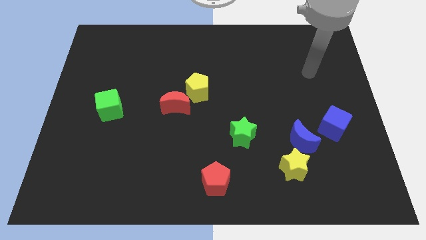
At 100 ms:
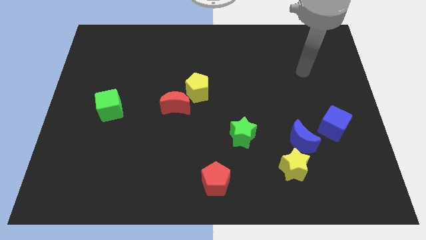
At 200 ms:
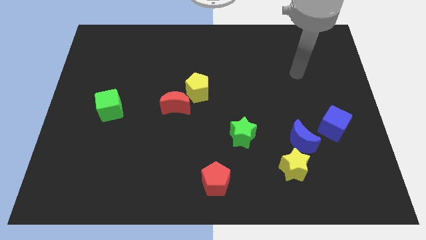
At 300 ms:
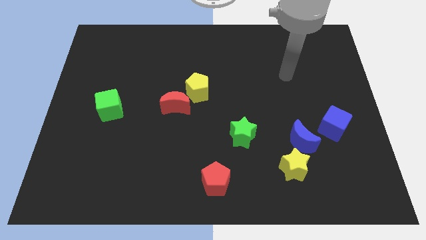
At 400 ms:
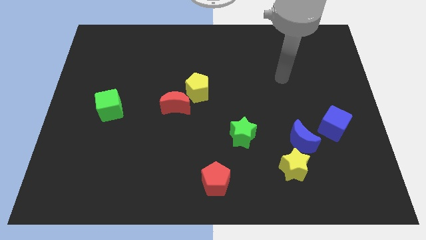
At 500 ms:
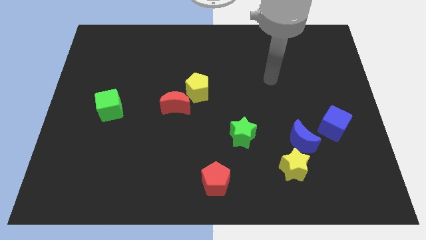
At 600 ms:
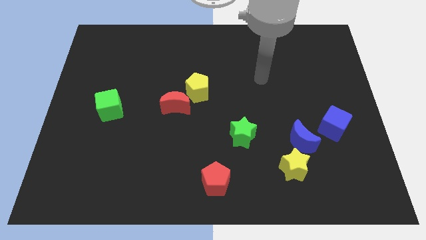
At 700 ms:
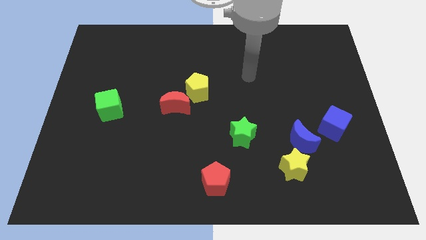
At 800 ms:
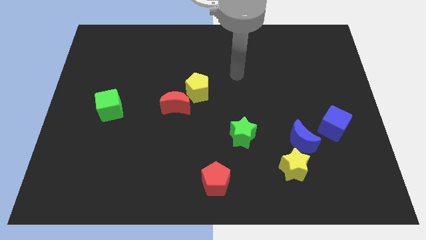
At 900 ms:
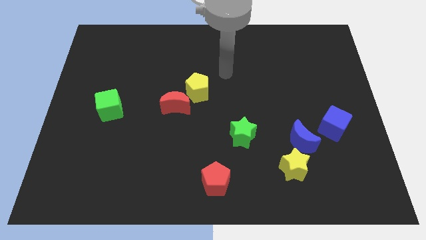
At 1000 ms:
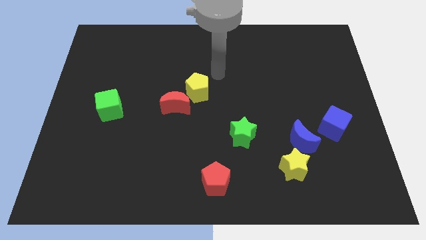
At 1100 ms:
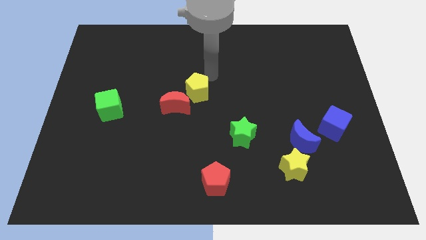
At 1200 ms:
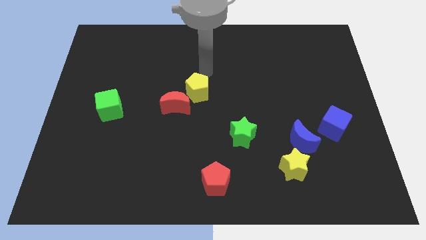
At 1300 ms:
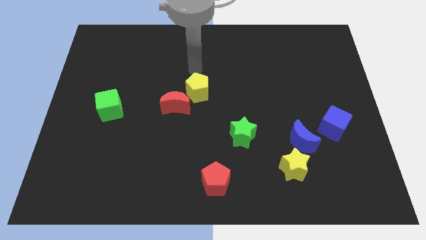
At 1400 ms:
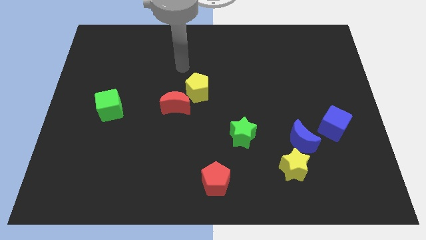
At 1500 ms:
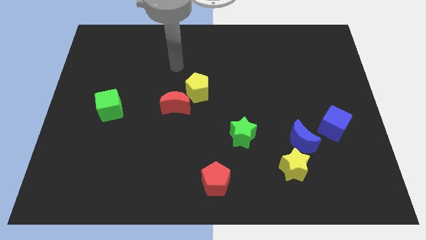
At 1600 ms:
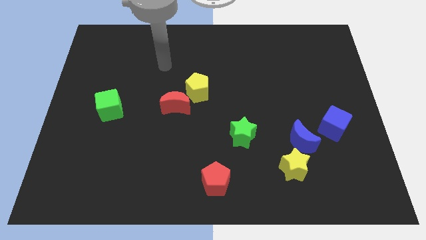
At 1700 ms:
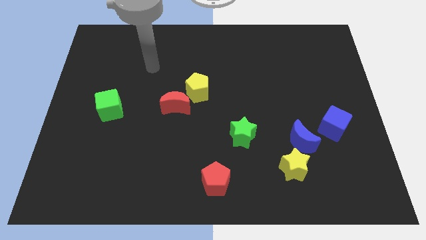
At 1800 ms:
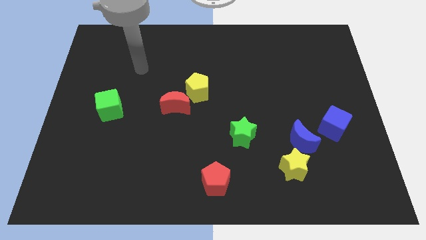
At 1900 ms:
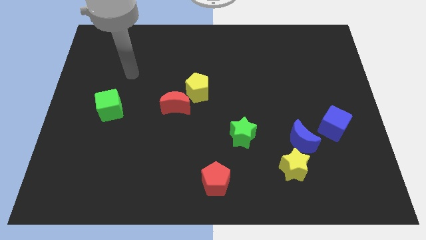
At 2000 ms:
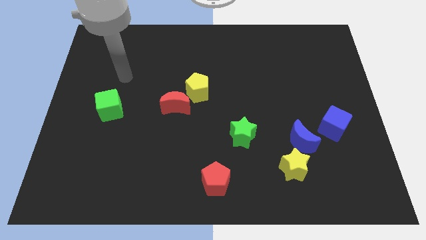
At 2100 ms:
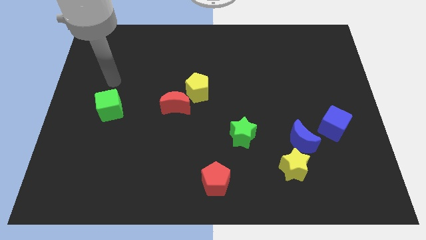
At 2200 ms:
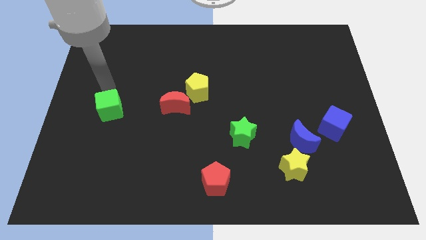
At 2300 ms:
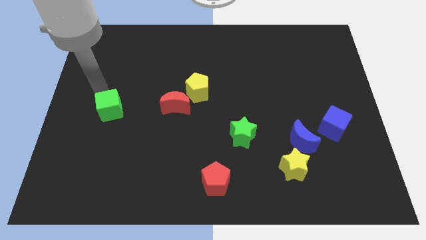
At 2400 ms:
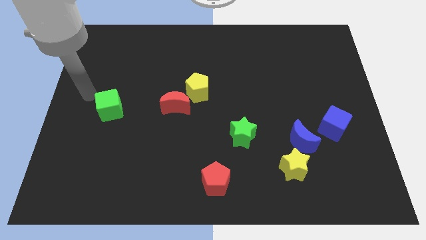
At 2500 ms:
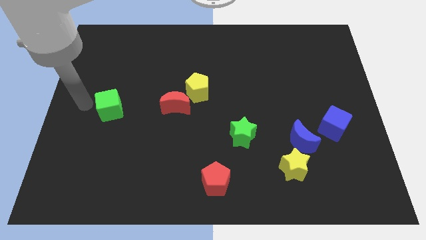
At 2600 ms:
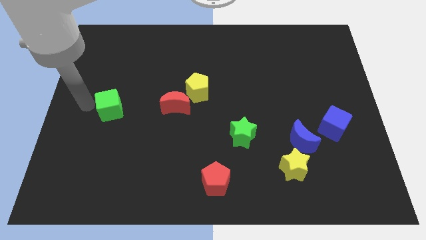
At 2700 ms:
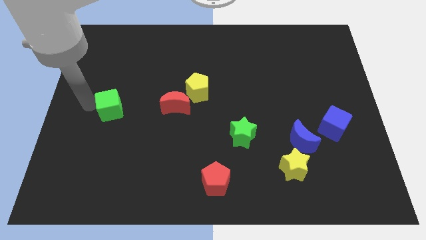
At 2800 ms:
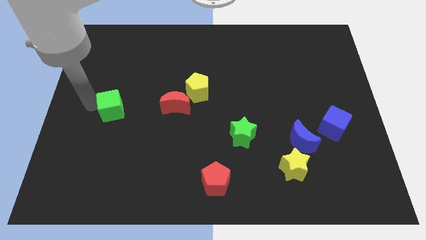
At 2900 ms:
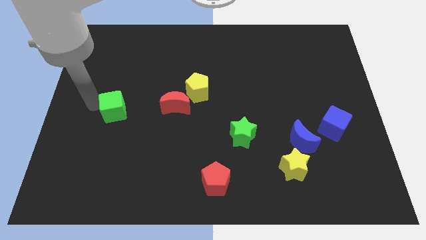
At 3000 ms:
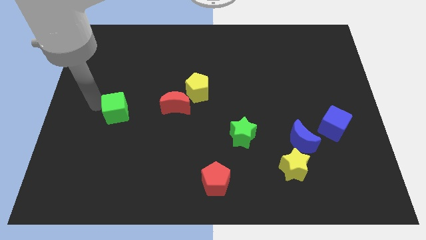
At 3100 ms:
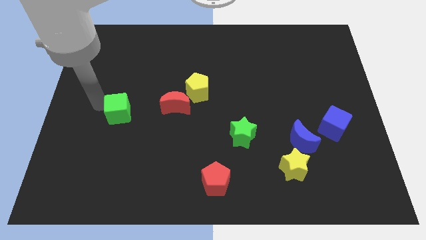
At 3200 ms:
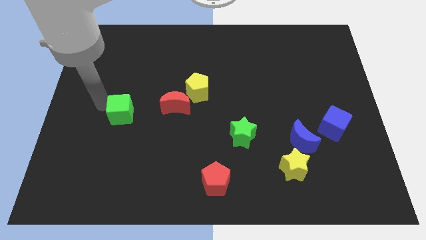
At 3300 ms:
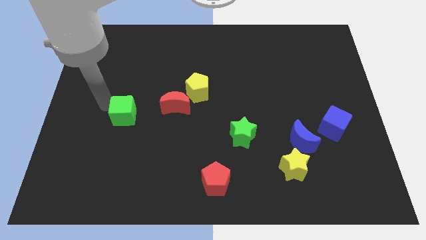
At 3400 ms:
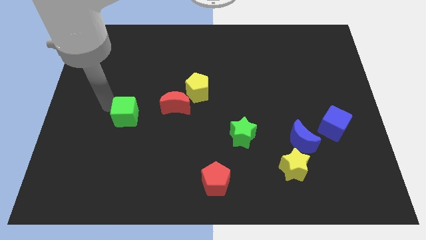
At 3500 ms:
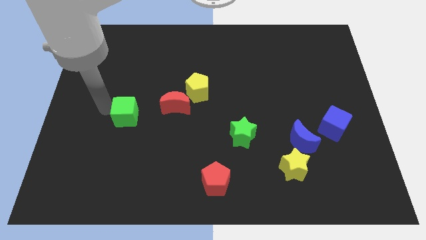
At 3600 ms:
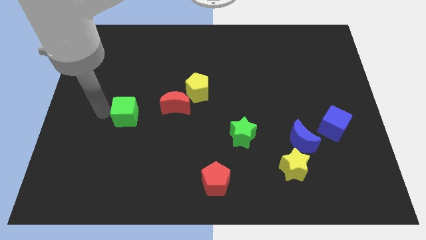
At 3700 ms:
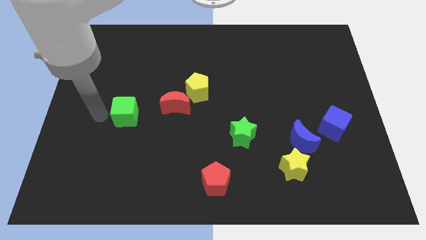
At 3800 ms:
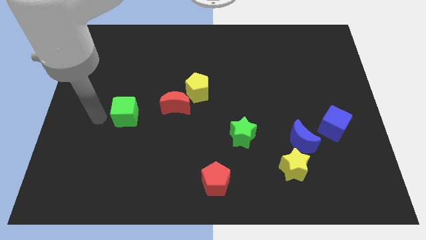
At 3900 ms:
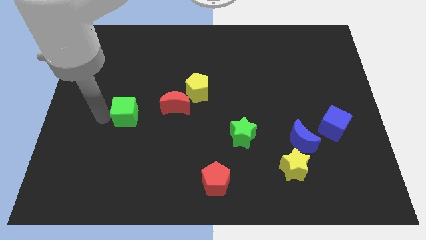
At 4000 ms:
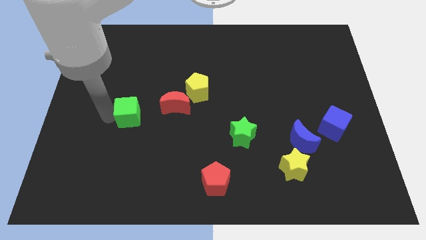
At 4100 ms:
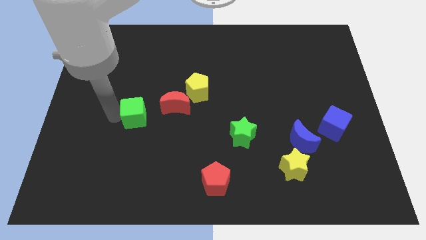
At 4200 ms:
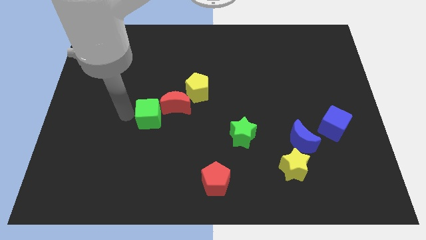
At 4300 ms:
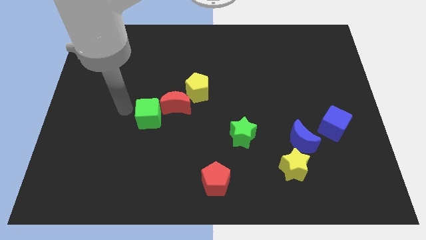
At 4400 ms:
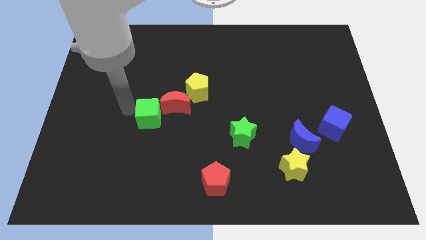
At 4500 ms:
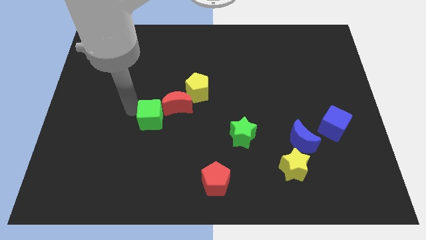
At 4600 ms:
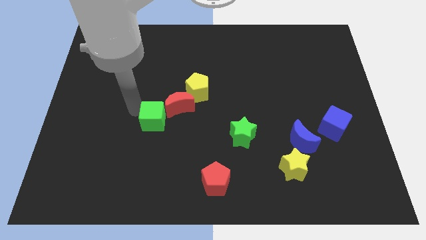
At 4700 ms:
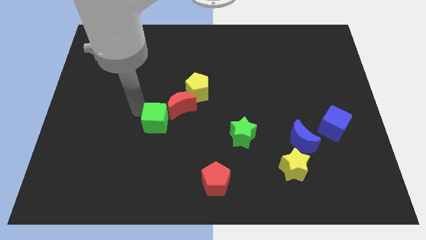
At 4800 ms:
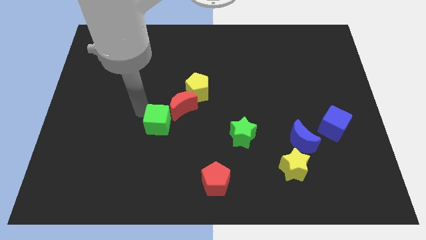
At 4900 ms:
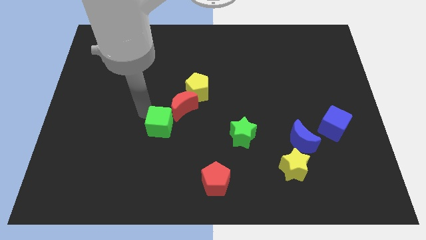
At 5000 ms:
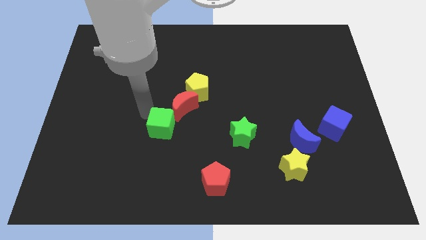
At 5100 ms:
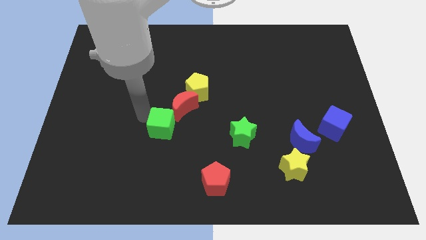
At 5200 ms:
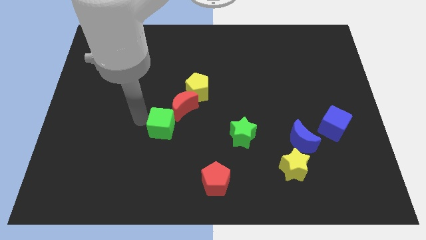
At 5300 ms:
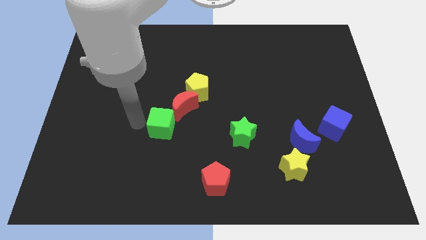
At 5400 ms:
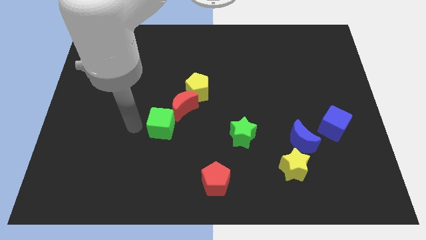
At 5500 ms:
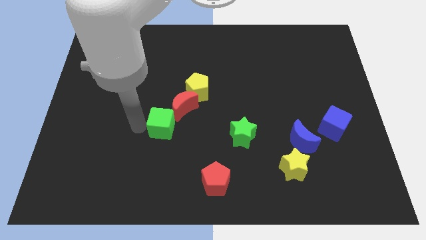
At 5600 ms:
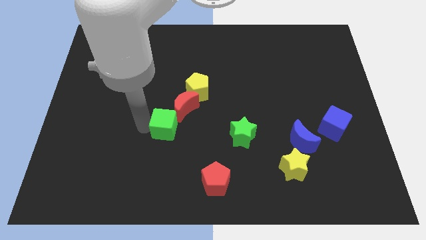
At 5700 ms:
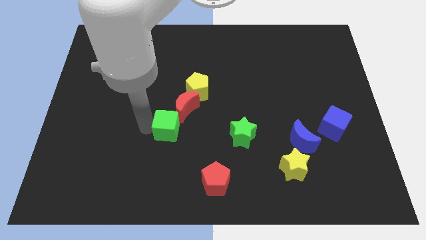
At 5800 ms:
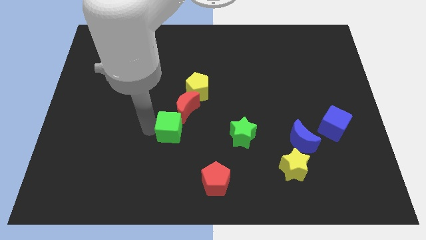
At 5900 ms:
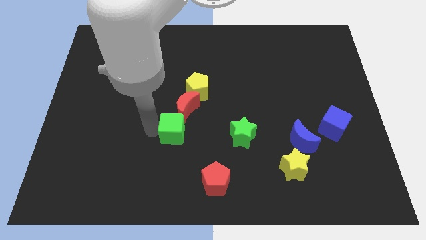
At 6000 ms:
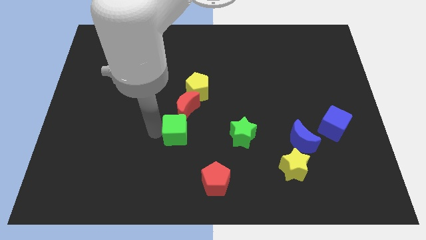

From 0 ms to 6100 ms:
move the green cube to the bottom of the yellow pentagon

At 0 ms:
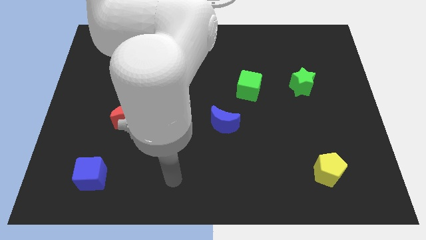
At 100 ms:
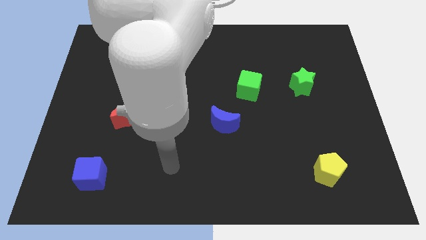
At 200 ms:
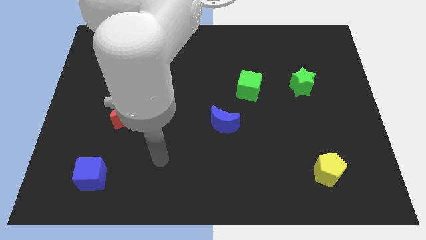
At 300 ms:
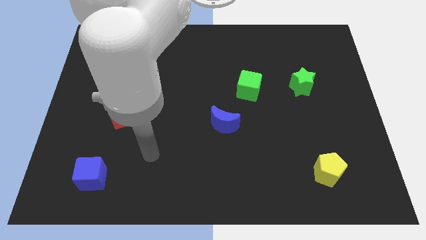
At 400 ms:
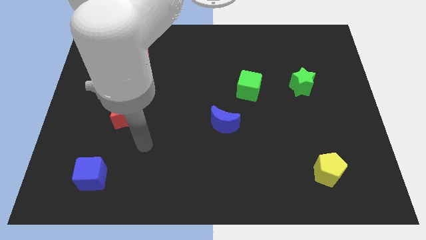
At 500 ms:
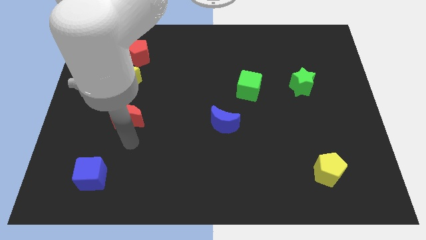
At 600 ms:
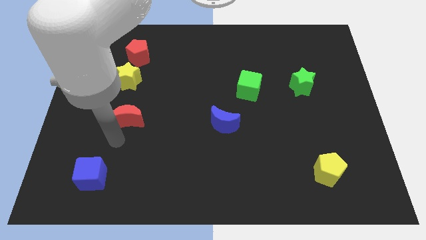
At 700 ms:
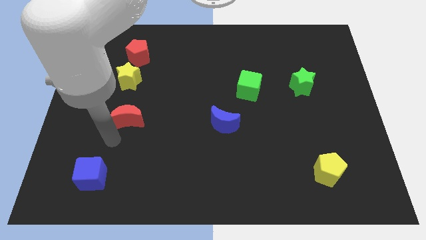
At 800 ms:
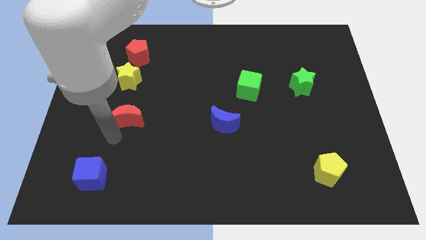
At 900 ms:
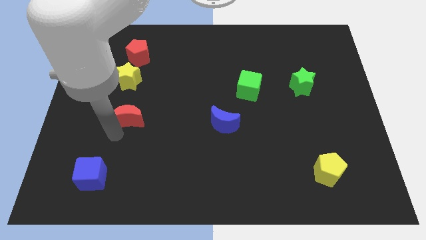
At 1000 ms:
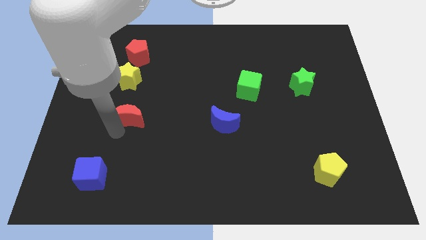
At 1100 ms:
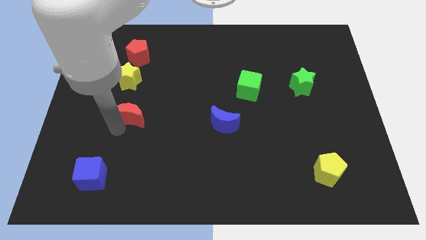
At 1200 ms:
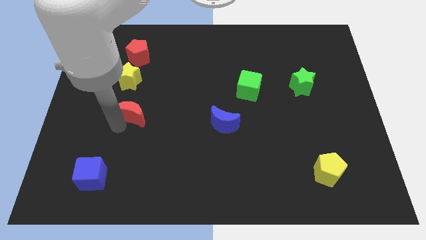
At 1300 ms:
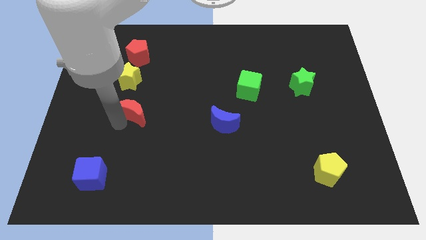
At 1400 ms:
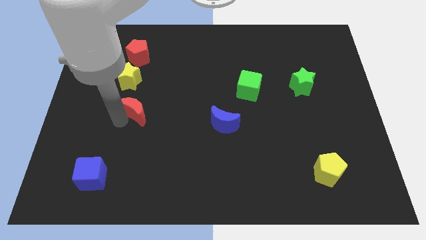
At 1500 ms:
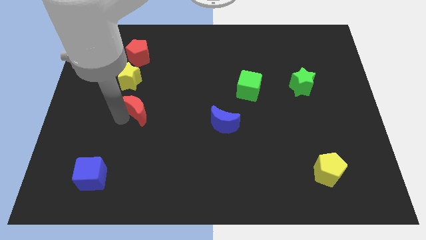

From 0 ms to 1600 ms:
slide the red moon to the bottom right side of the yellow star
